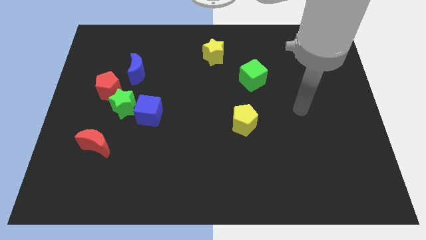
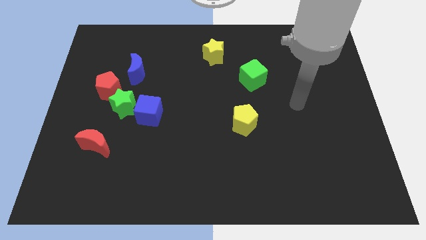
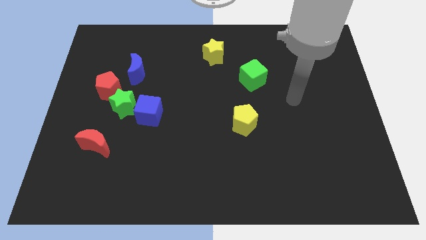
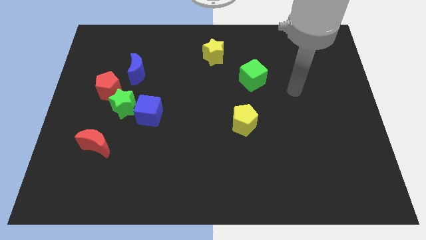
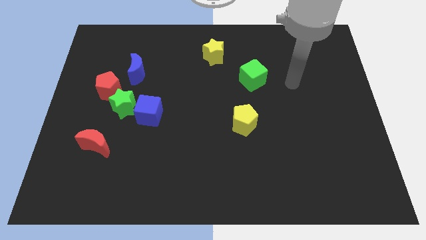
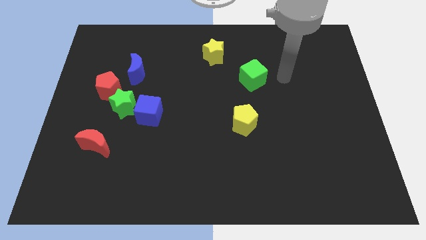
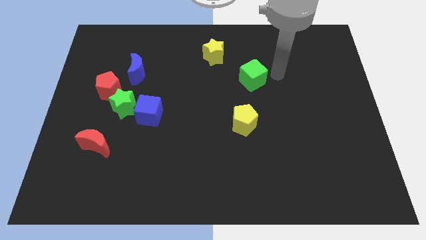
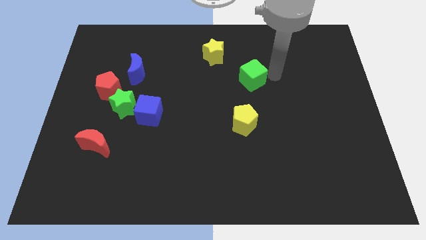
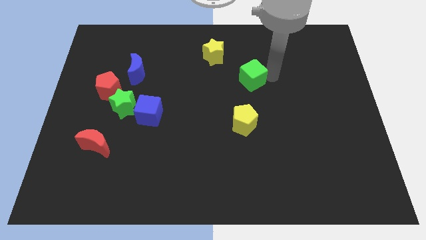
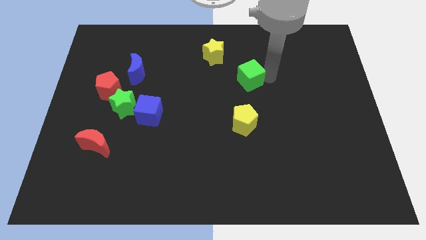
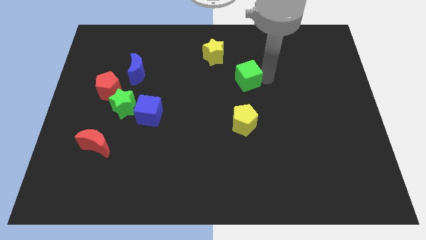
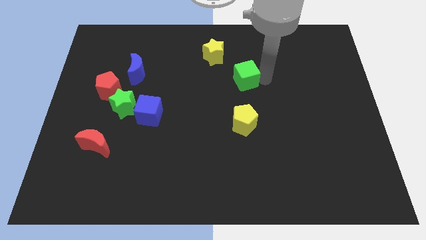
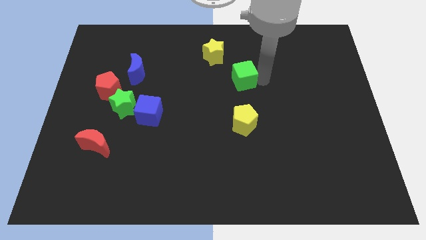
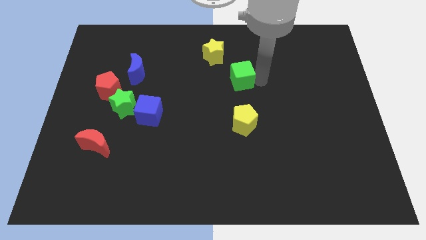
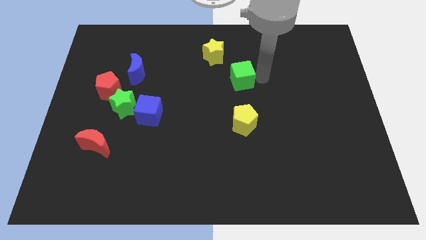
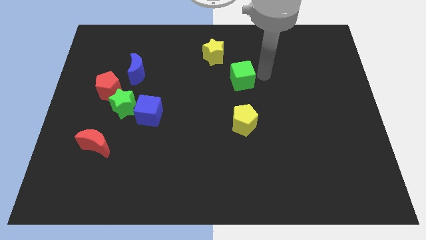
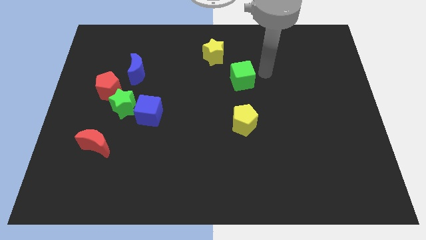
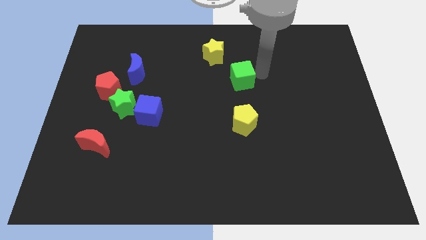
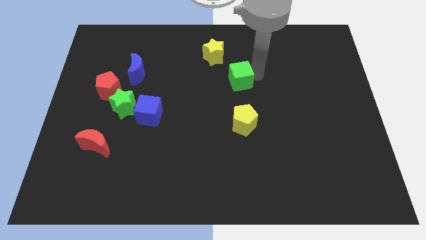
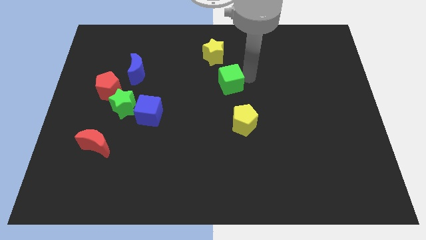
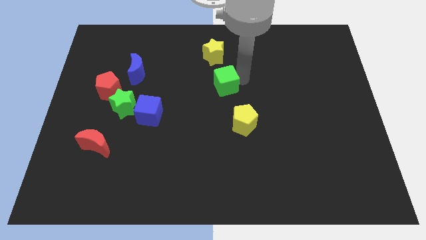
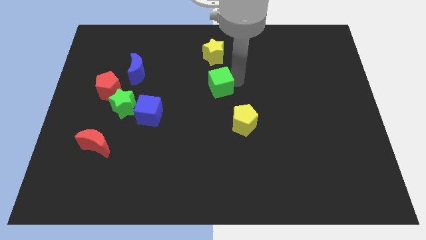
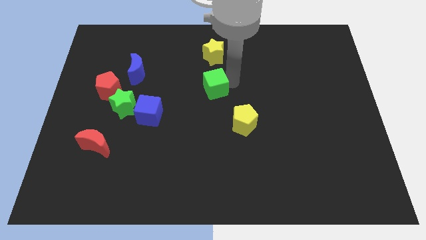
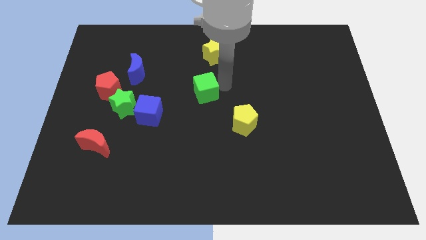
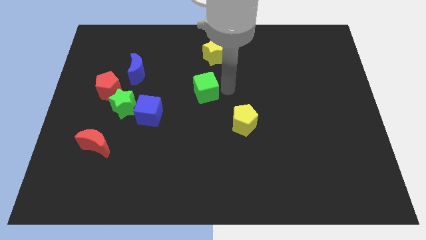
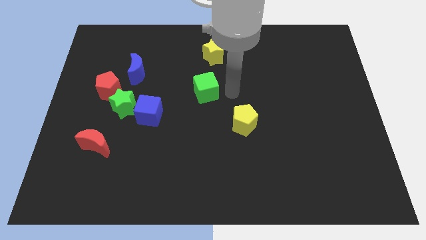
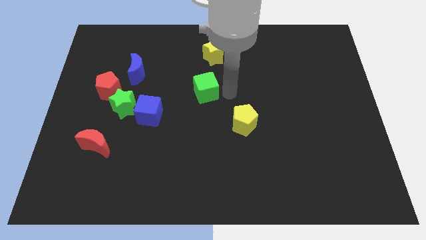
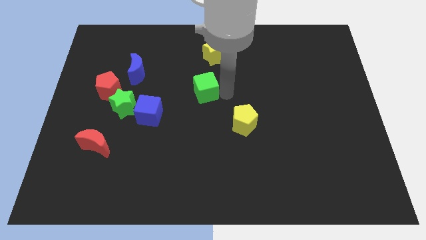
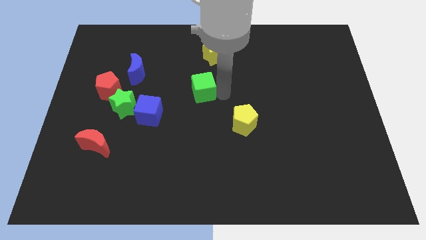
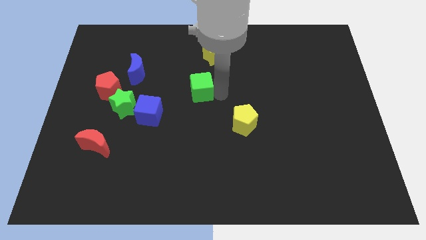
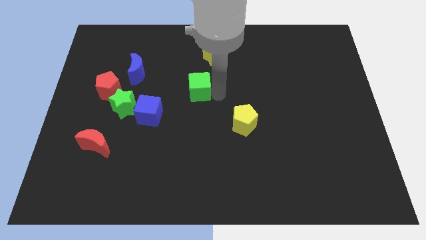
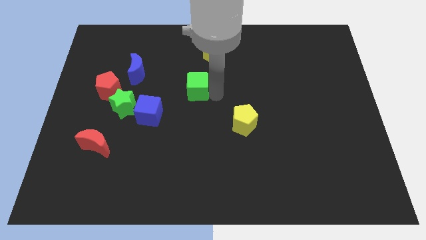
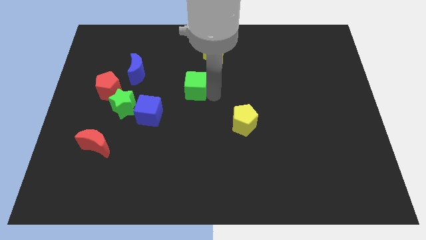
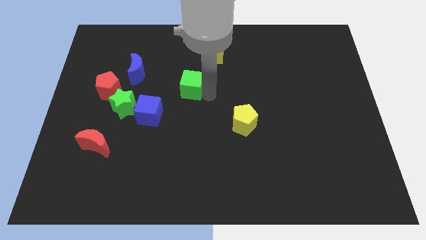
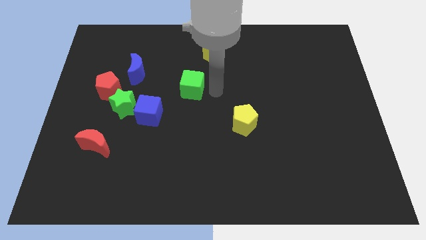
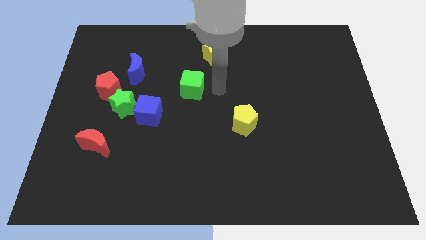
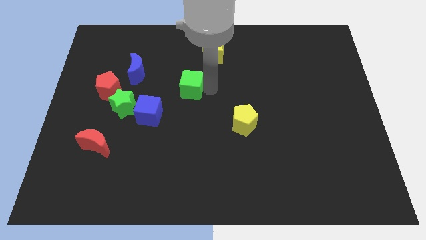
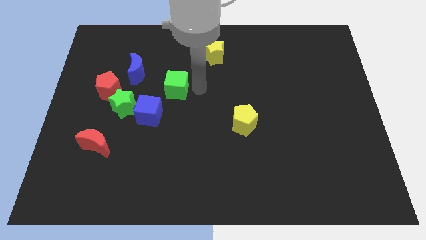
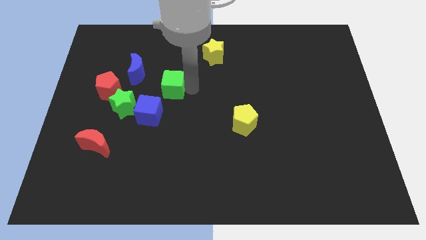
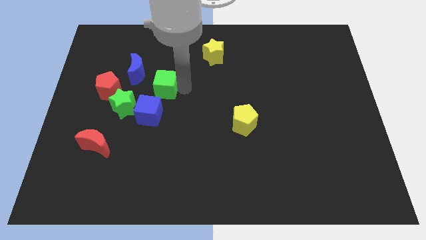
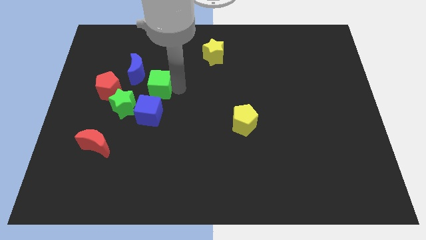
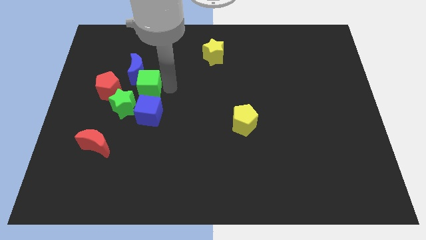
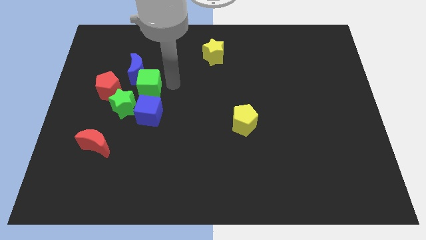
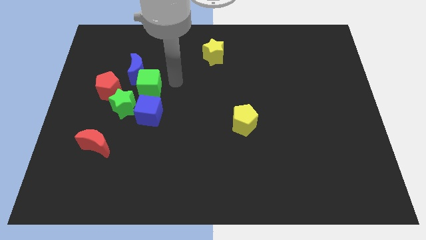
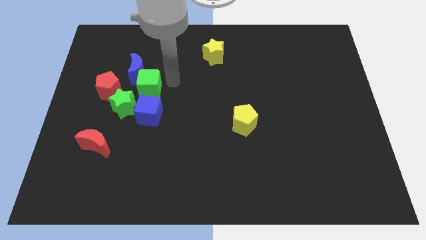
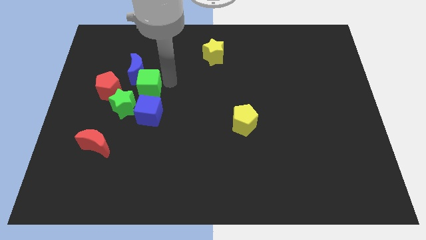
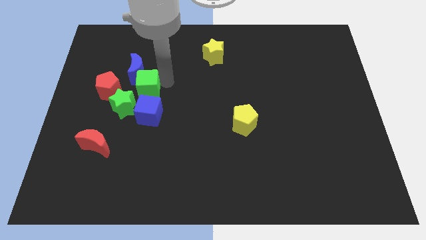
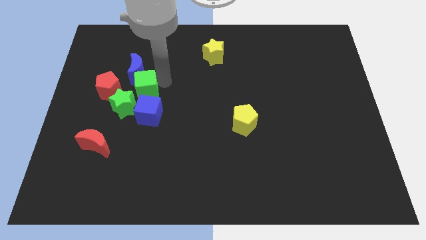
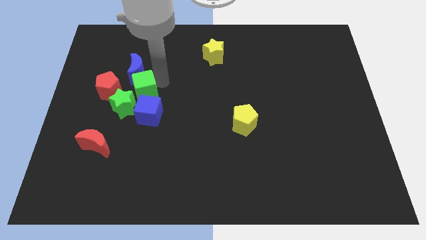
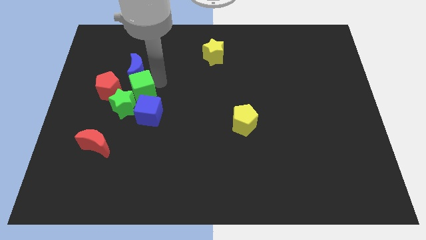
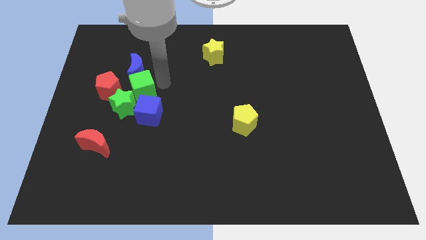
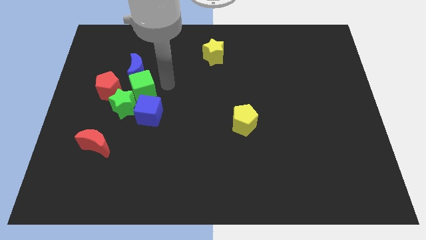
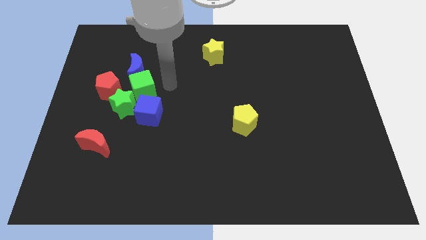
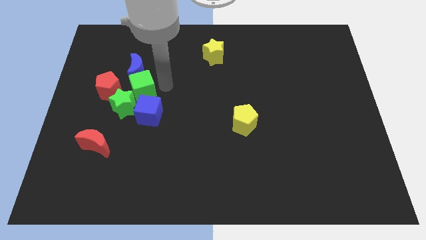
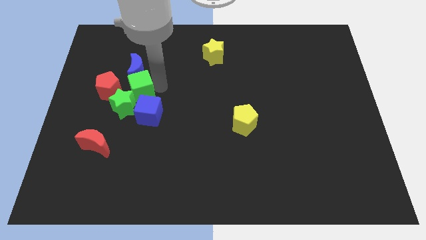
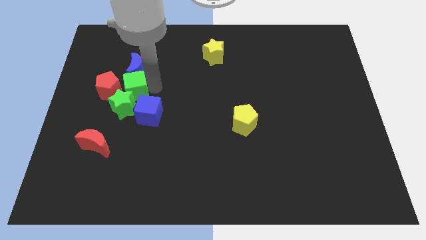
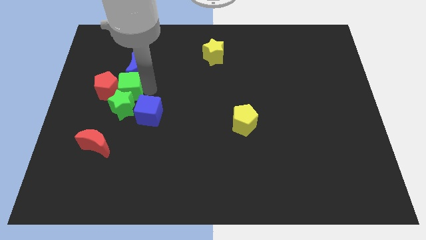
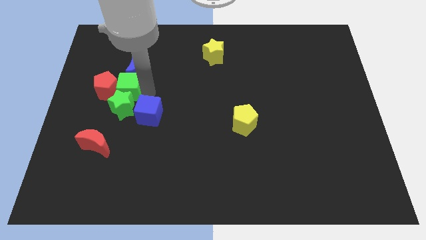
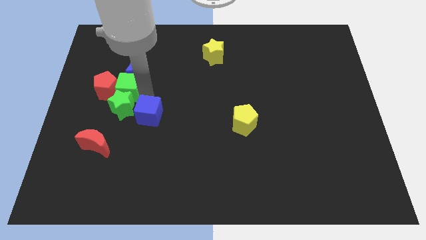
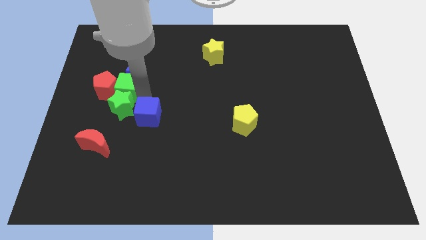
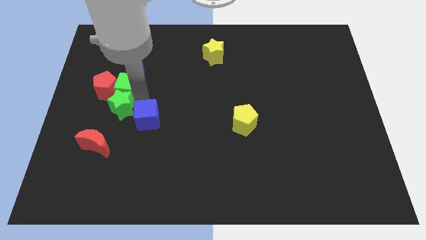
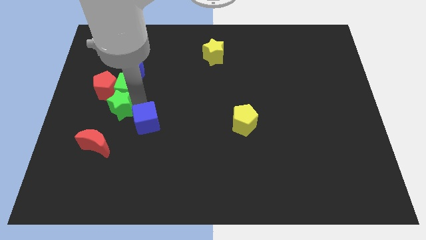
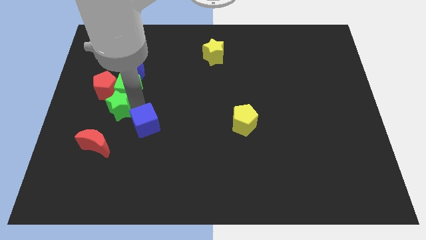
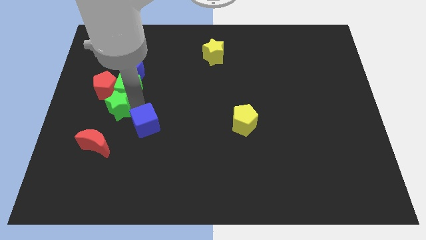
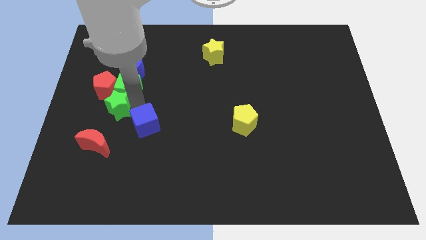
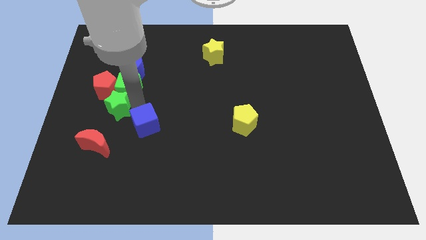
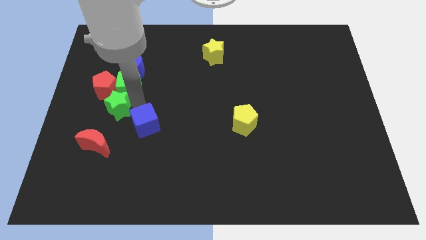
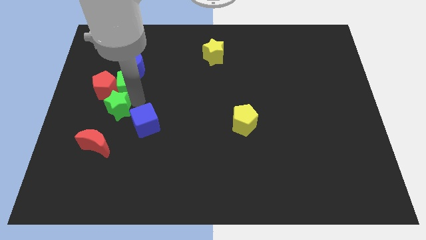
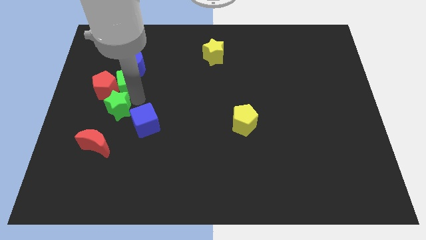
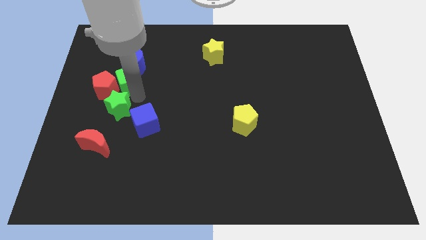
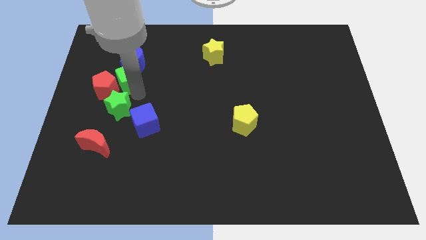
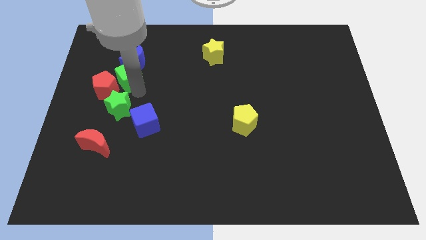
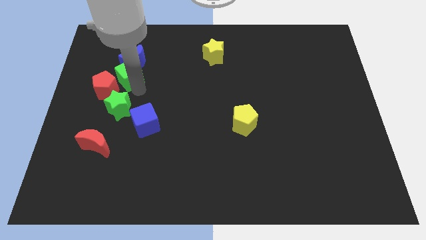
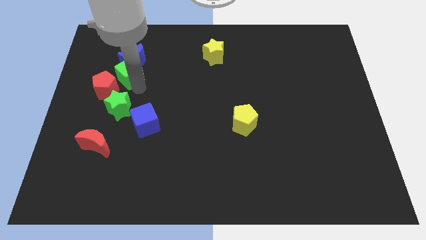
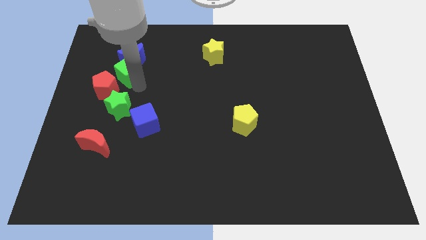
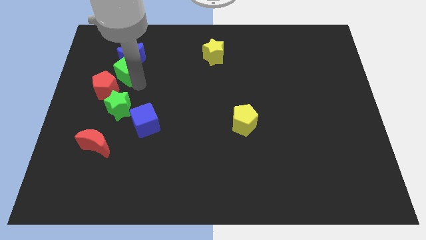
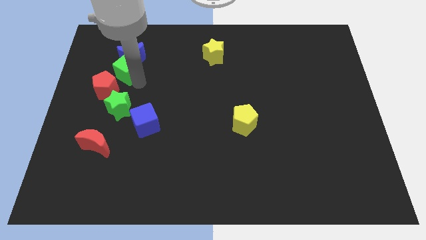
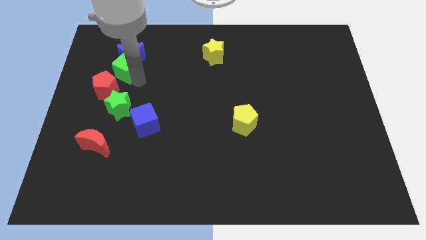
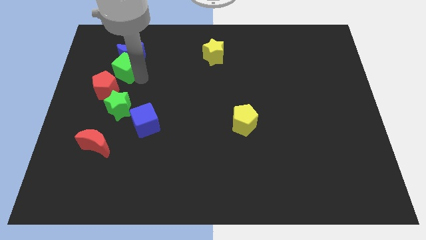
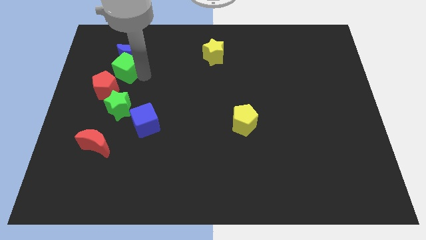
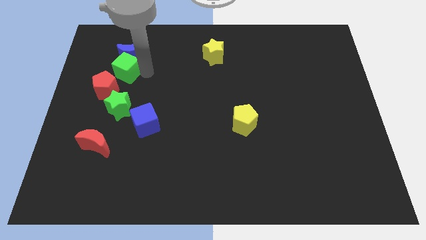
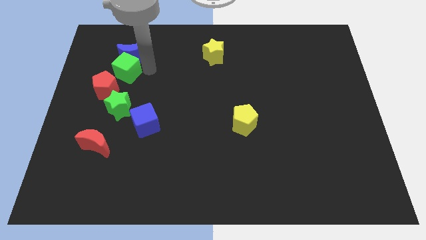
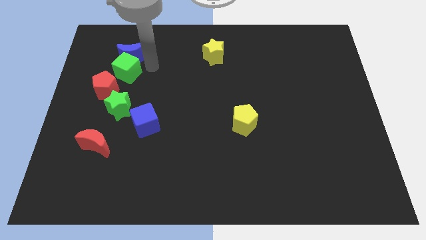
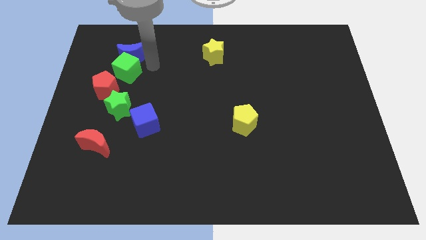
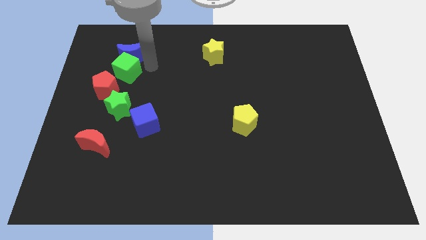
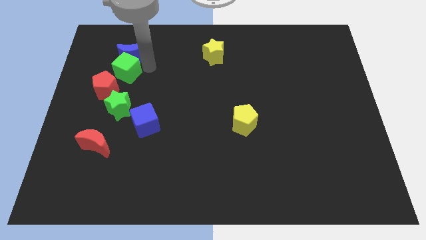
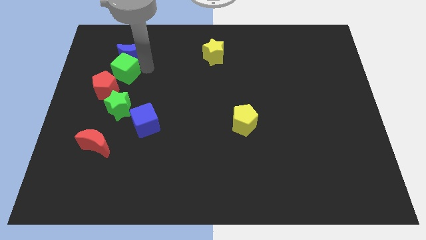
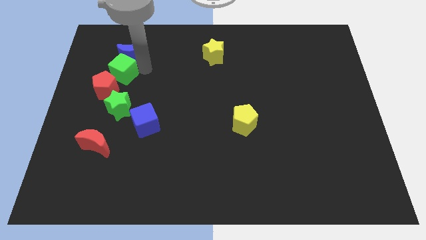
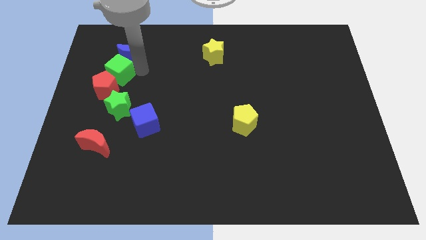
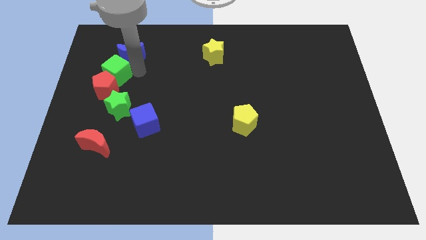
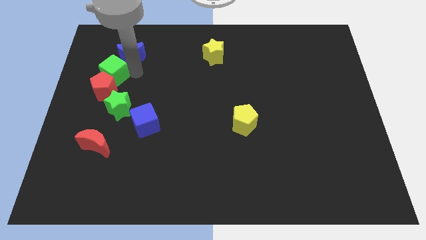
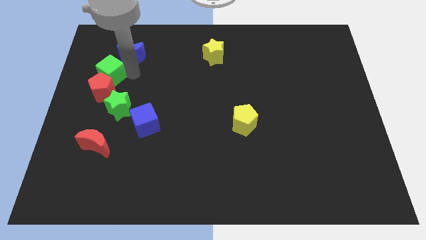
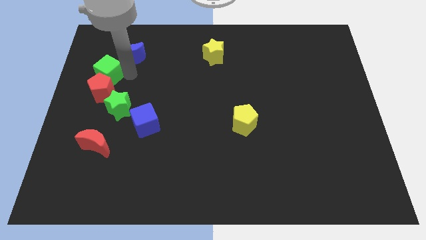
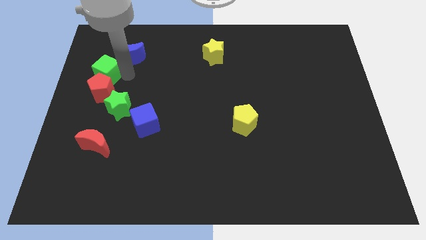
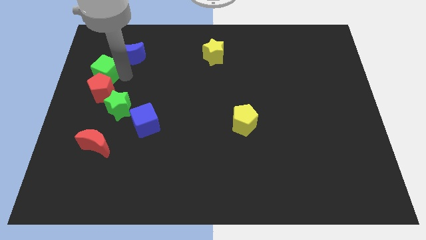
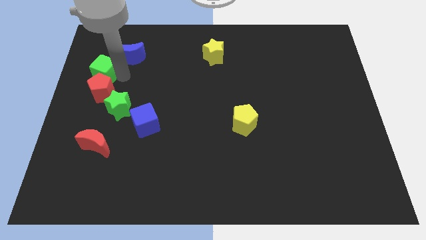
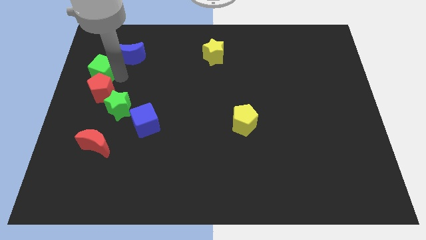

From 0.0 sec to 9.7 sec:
slide the green cube to the left side of the board
